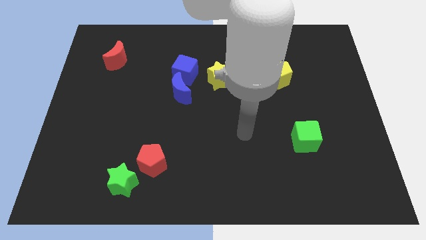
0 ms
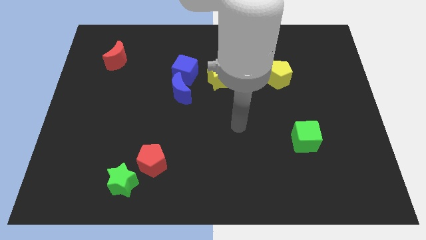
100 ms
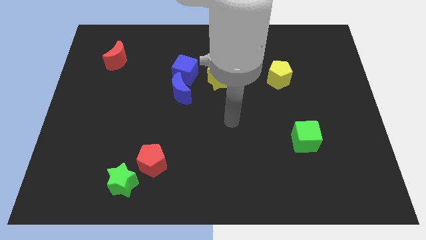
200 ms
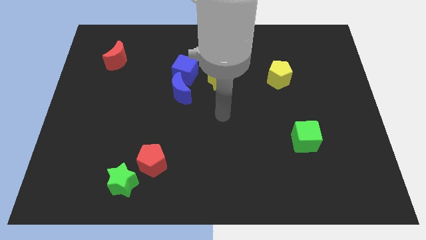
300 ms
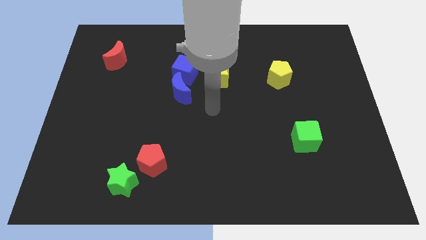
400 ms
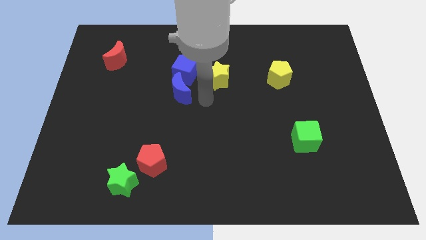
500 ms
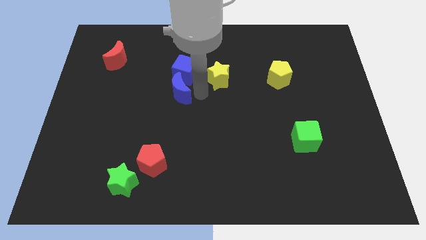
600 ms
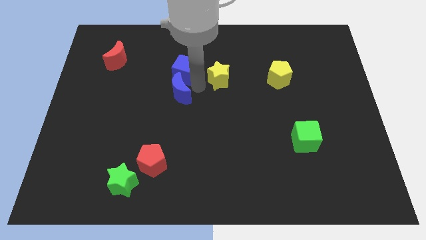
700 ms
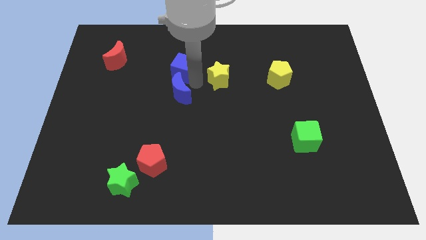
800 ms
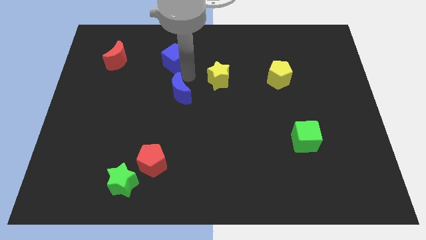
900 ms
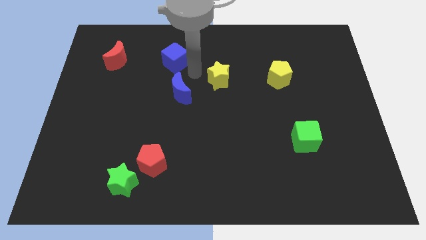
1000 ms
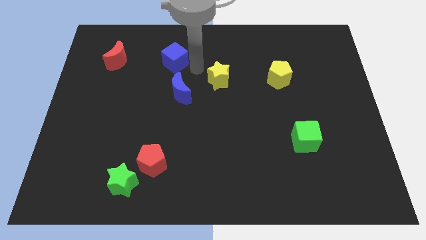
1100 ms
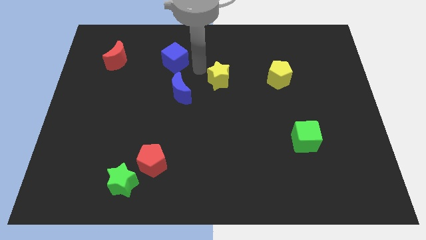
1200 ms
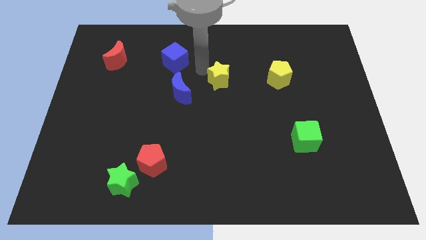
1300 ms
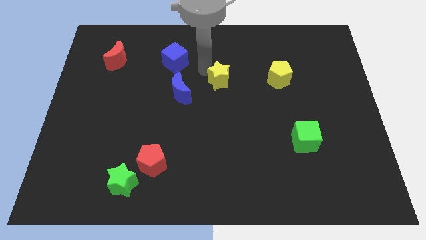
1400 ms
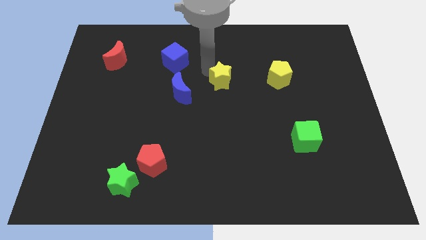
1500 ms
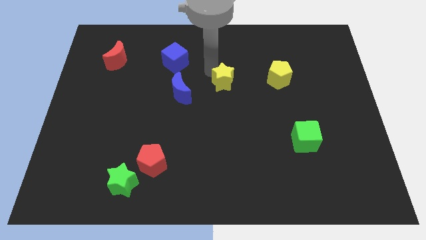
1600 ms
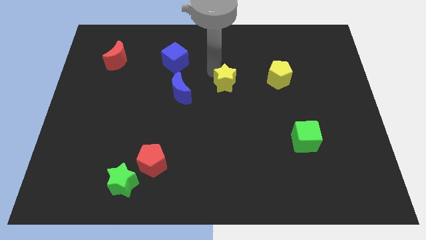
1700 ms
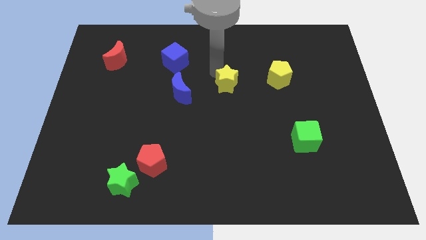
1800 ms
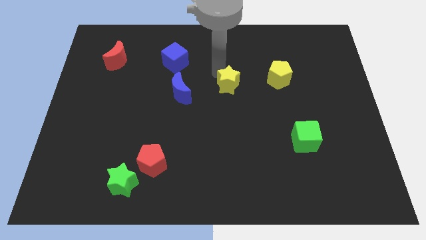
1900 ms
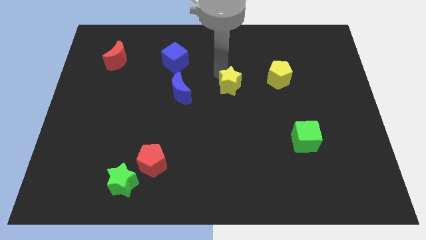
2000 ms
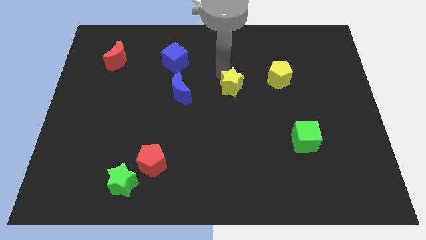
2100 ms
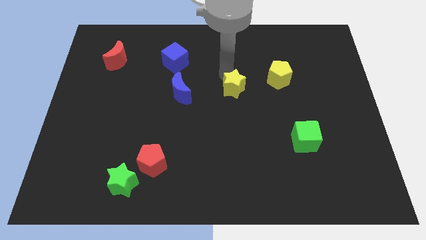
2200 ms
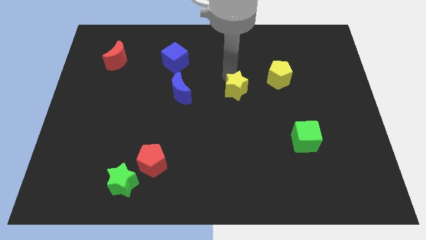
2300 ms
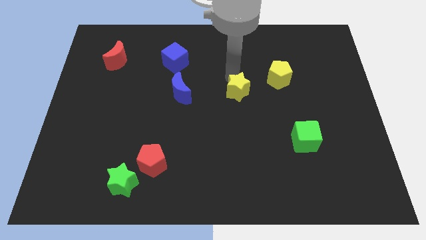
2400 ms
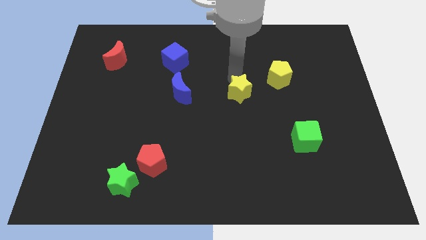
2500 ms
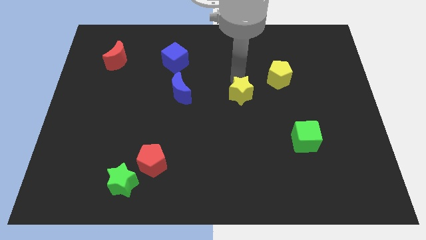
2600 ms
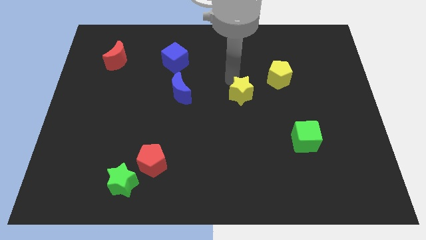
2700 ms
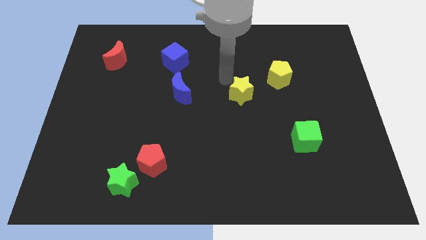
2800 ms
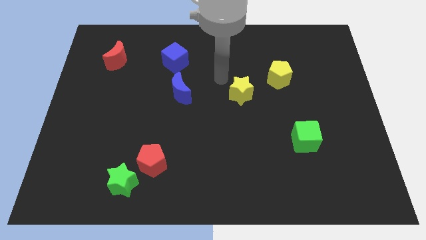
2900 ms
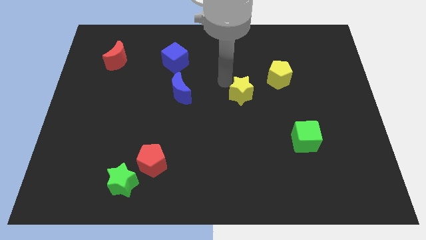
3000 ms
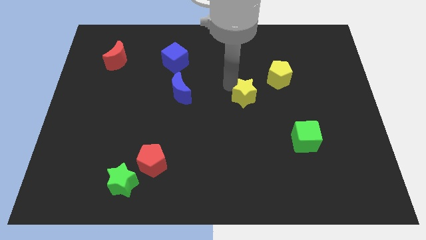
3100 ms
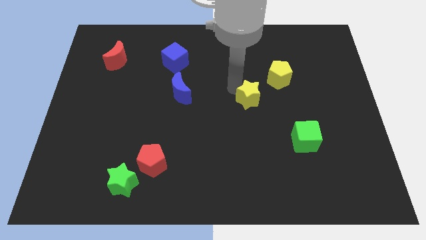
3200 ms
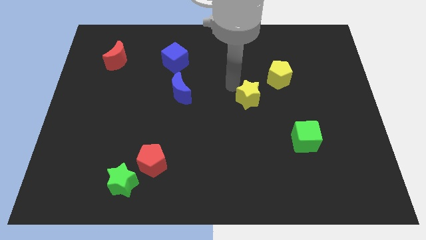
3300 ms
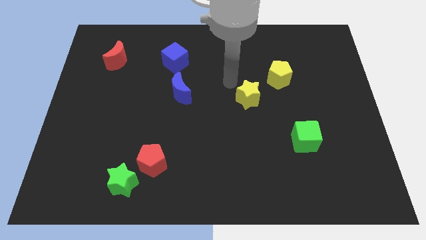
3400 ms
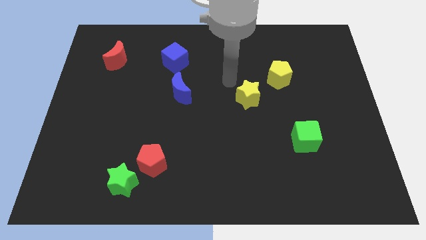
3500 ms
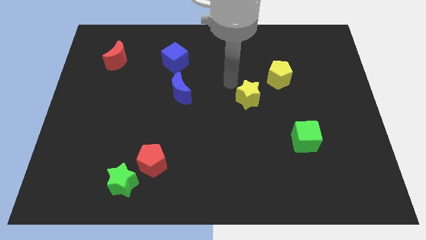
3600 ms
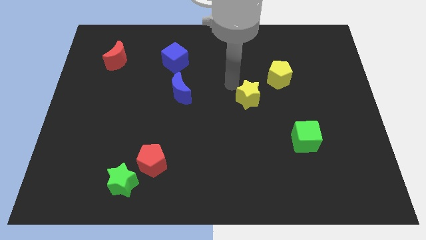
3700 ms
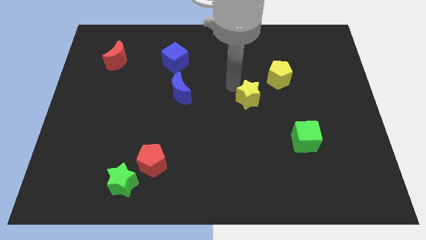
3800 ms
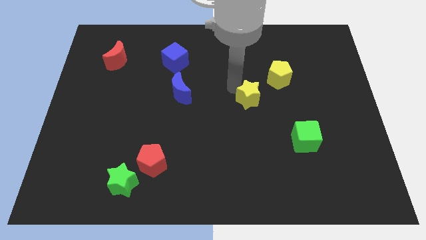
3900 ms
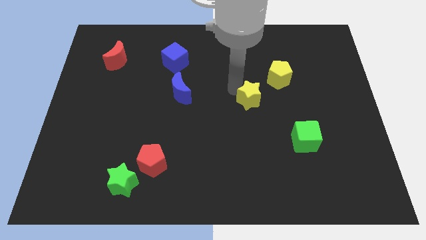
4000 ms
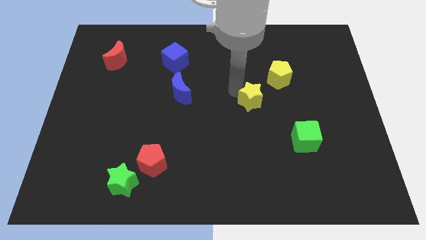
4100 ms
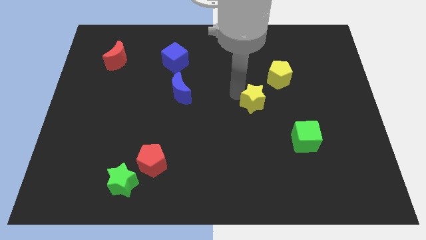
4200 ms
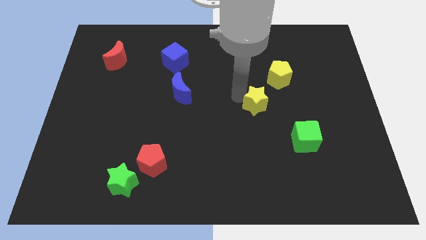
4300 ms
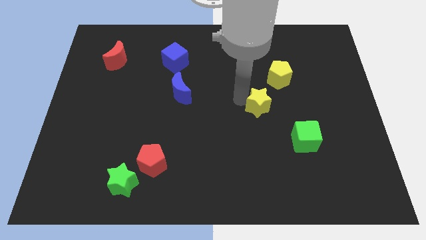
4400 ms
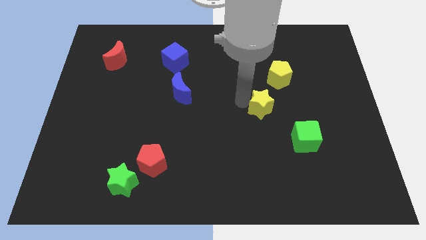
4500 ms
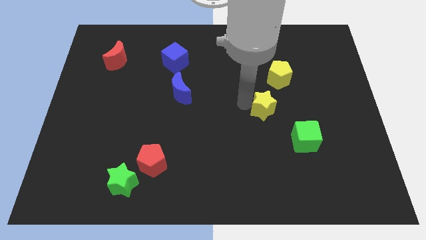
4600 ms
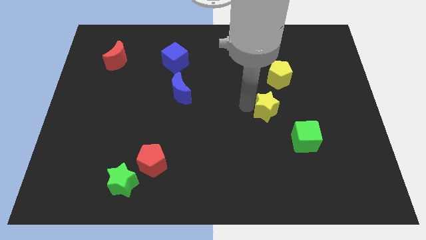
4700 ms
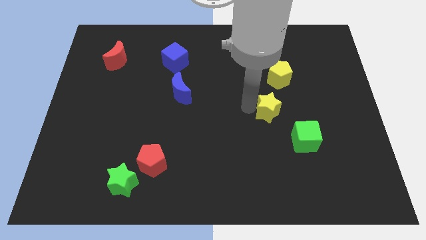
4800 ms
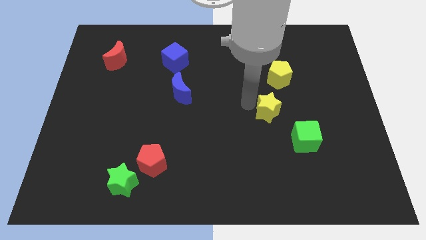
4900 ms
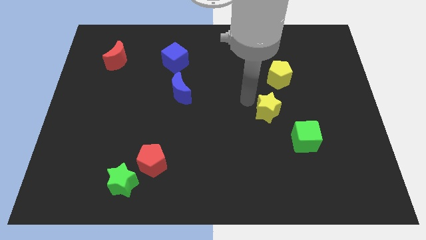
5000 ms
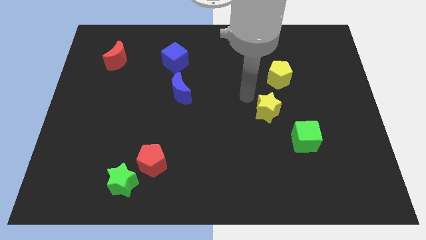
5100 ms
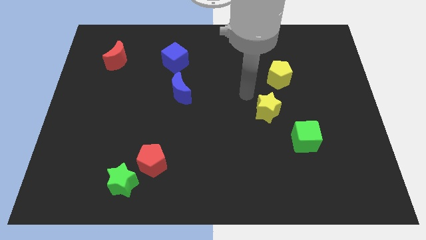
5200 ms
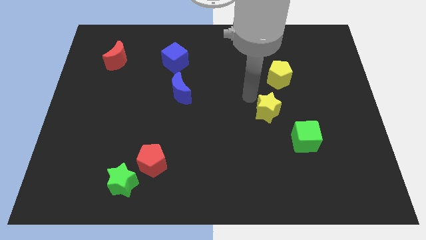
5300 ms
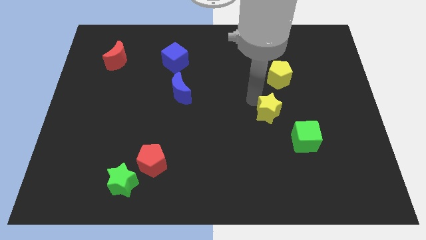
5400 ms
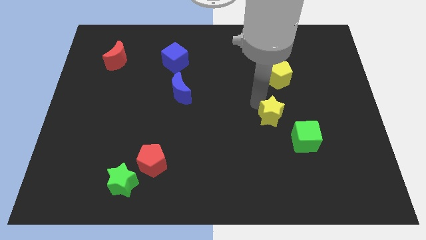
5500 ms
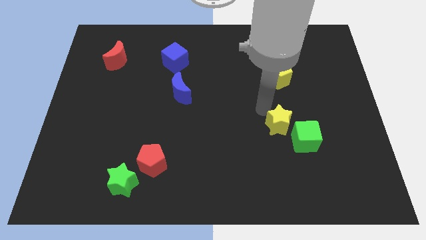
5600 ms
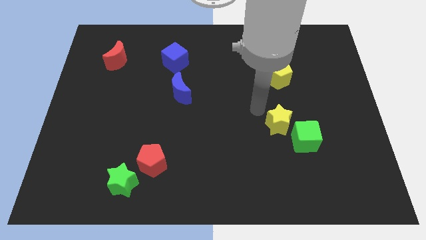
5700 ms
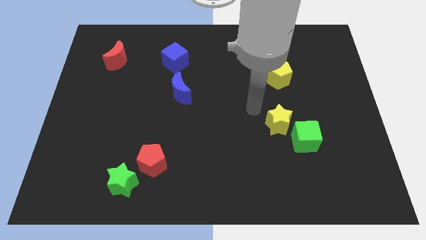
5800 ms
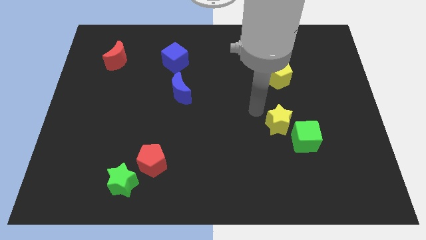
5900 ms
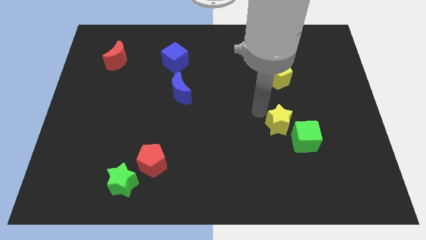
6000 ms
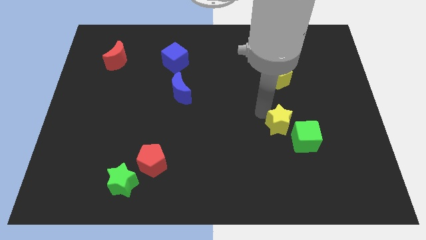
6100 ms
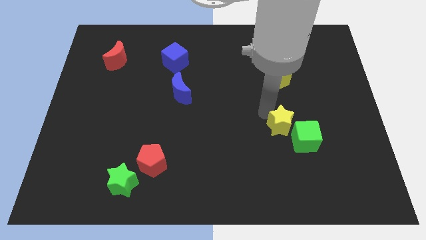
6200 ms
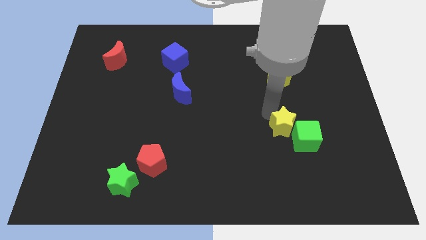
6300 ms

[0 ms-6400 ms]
move the yellow star towards the green cube
